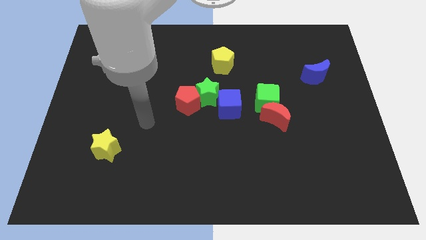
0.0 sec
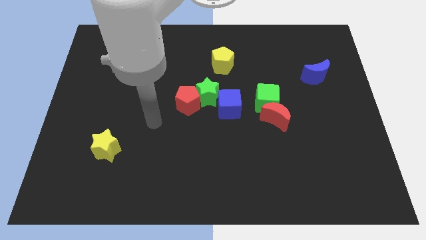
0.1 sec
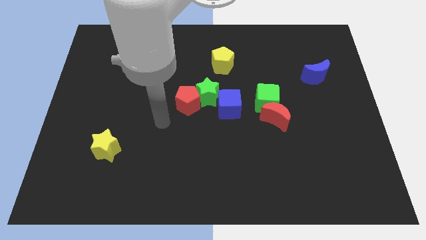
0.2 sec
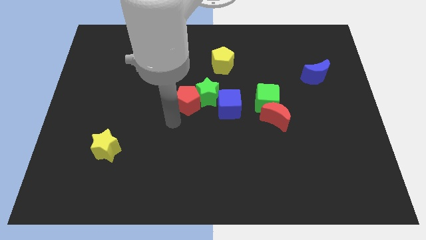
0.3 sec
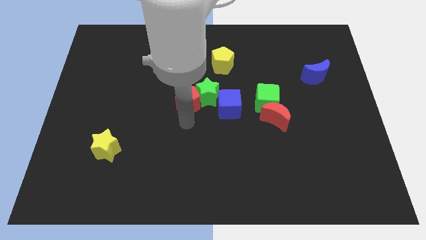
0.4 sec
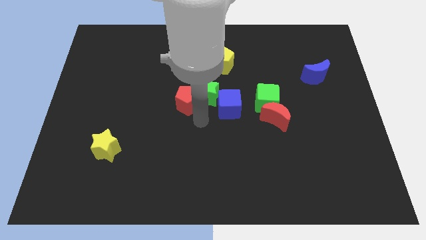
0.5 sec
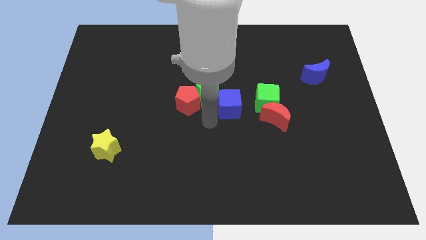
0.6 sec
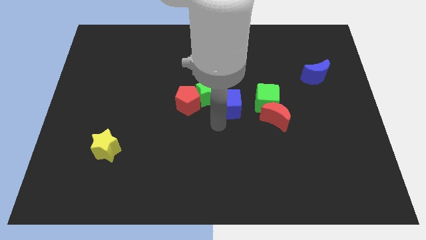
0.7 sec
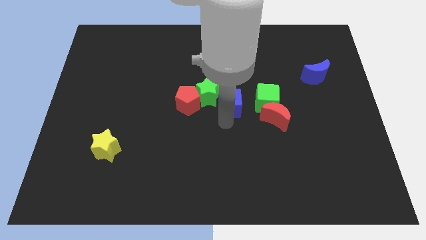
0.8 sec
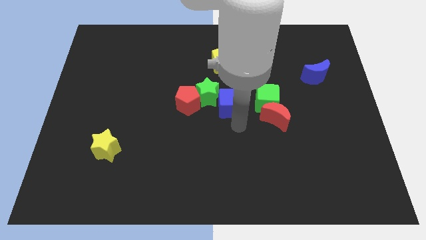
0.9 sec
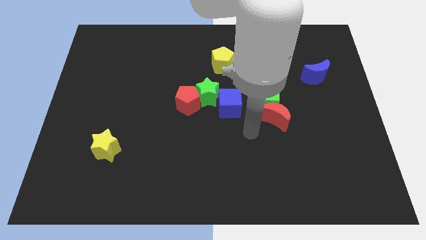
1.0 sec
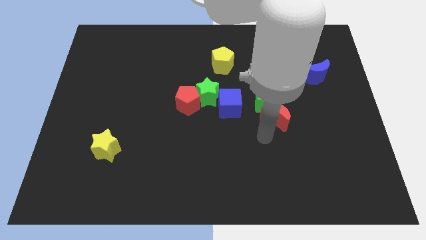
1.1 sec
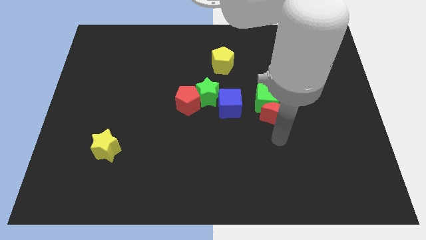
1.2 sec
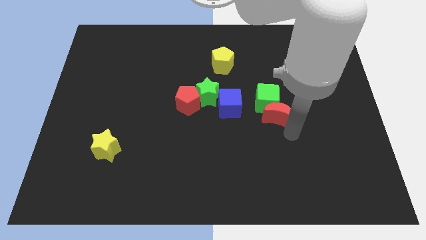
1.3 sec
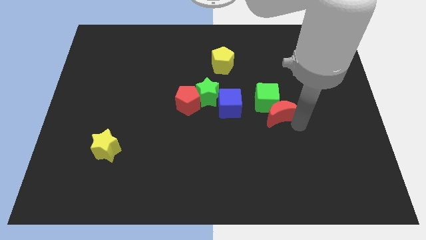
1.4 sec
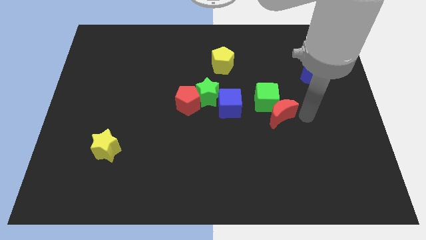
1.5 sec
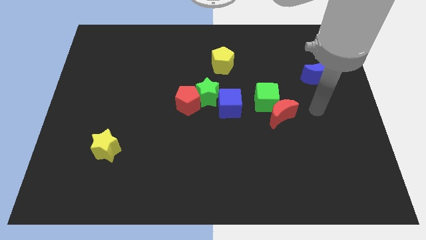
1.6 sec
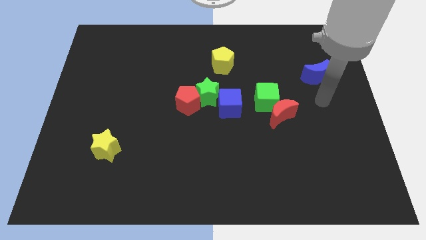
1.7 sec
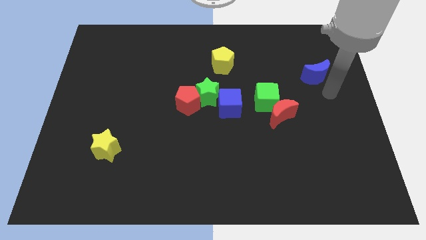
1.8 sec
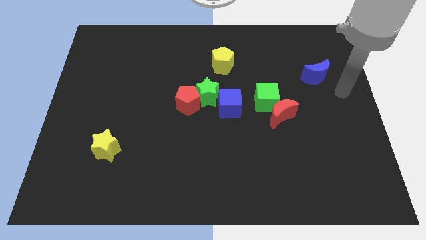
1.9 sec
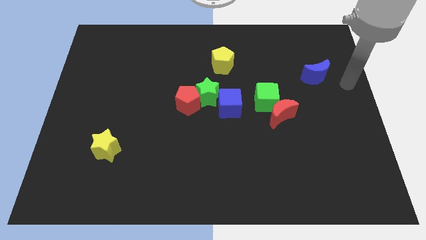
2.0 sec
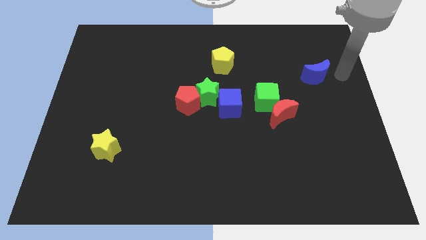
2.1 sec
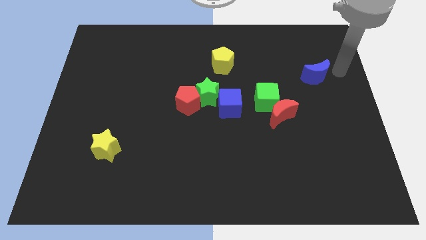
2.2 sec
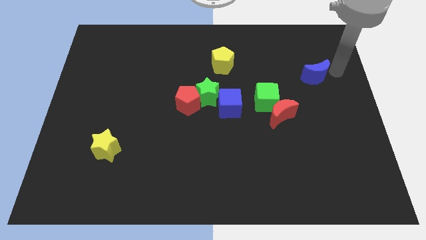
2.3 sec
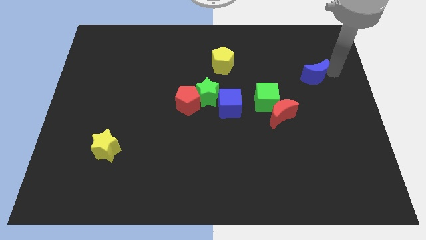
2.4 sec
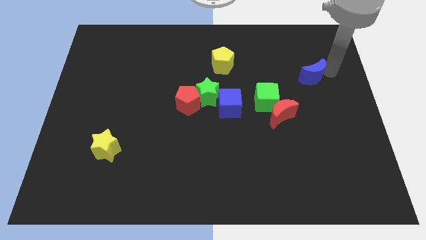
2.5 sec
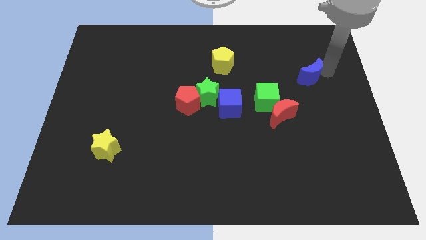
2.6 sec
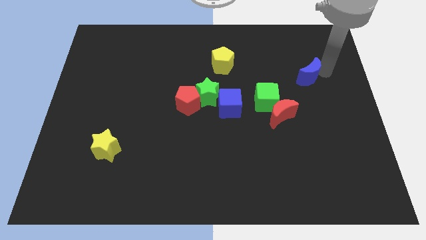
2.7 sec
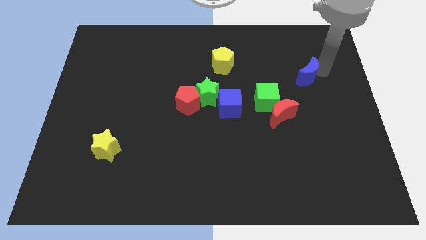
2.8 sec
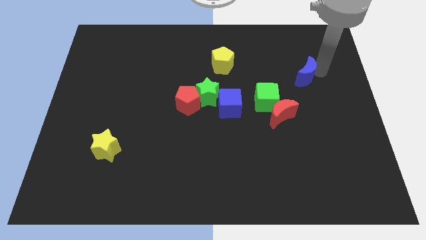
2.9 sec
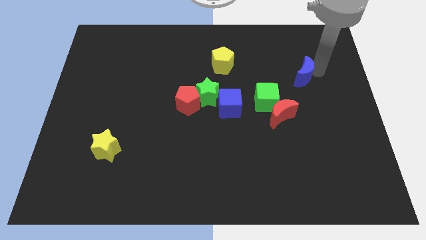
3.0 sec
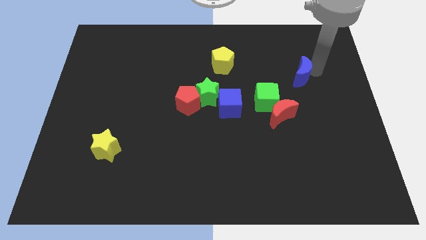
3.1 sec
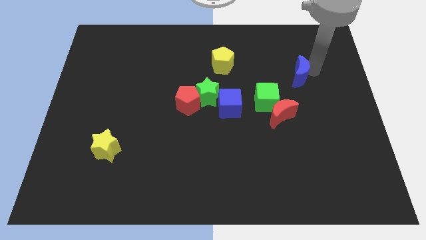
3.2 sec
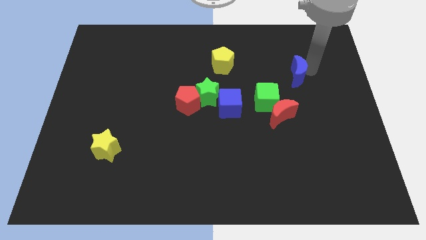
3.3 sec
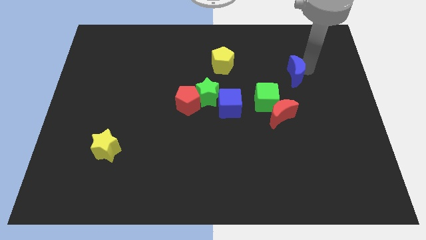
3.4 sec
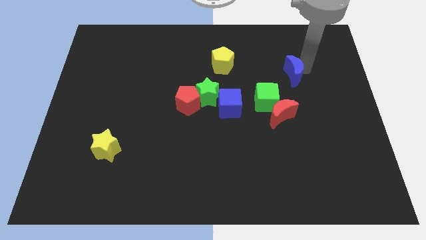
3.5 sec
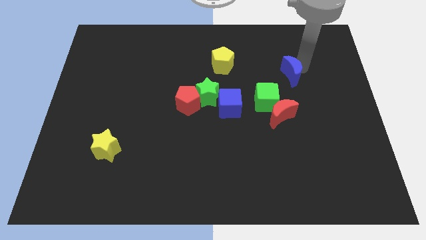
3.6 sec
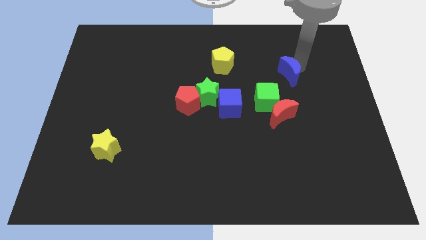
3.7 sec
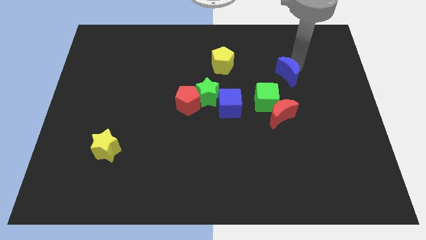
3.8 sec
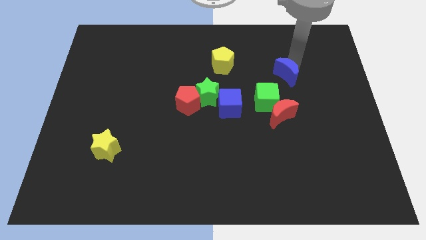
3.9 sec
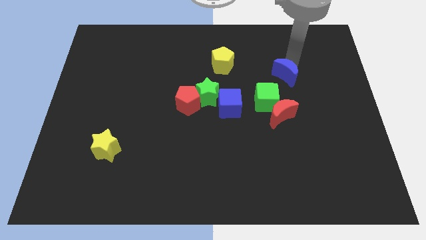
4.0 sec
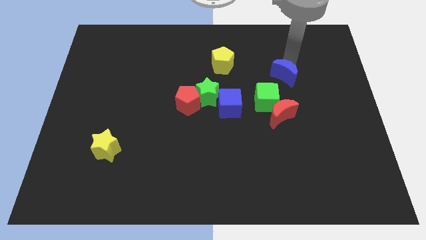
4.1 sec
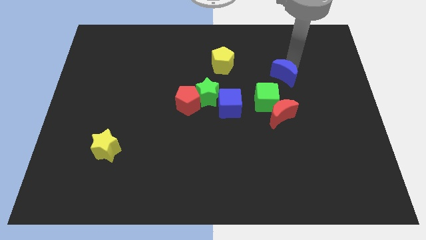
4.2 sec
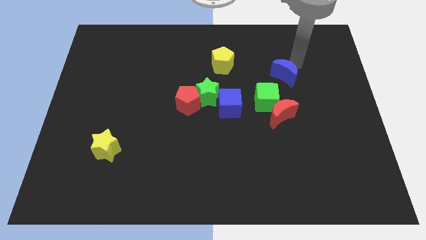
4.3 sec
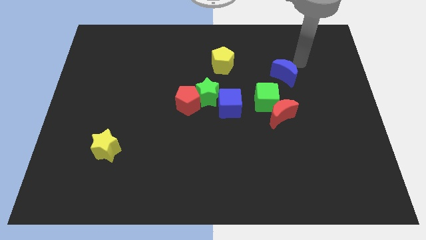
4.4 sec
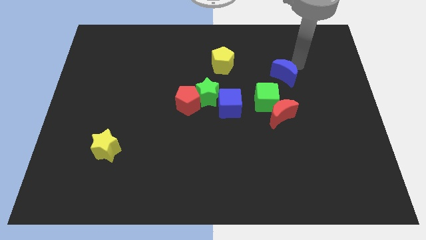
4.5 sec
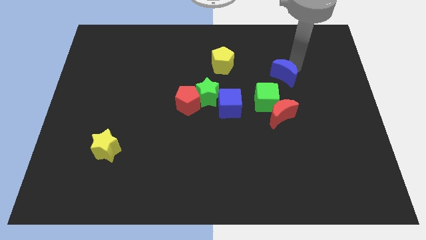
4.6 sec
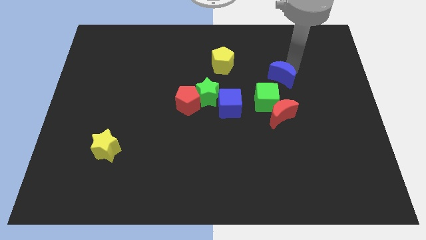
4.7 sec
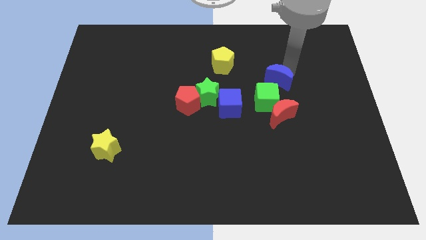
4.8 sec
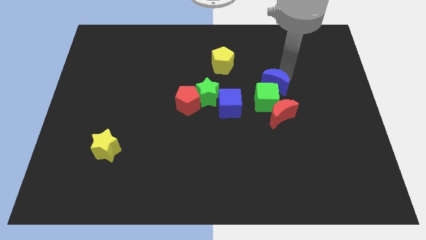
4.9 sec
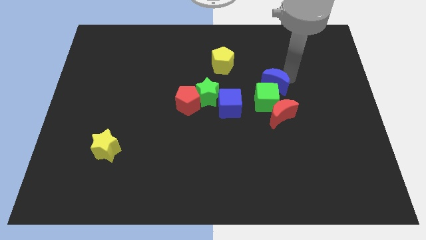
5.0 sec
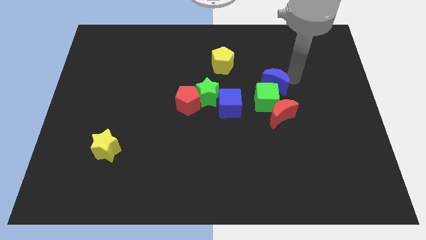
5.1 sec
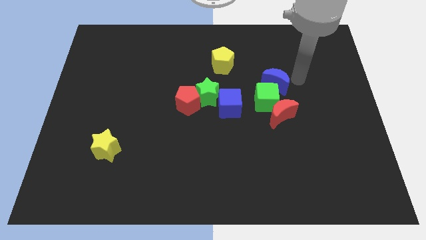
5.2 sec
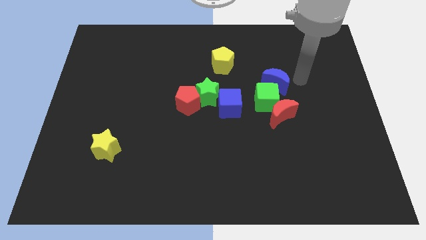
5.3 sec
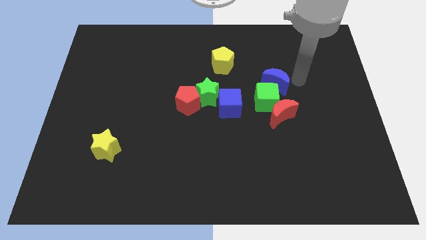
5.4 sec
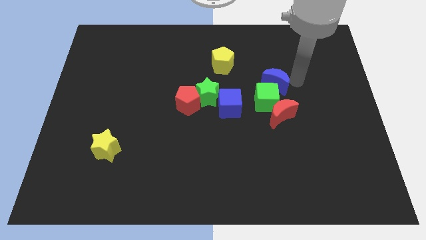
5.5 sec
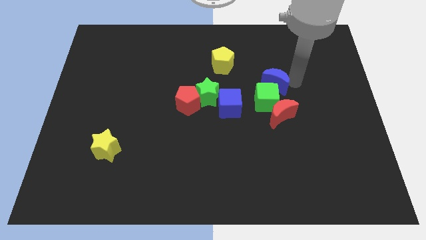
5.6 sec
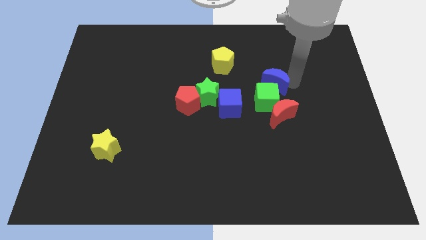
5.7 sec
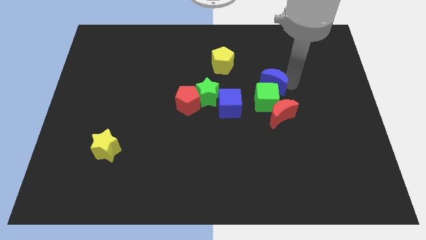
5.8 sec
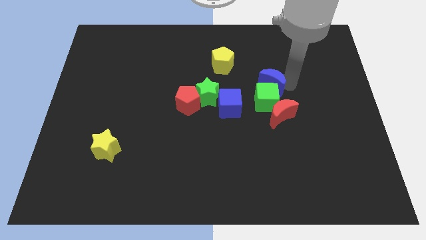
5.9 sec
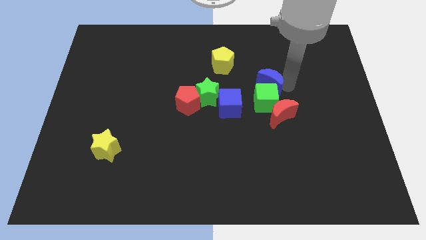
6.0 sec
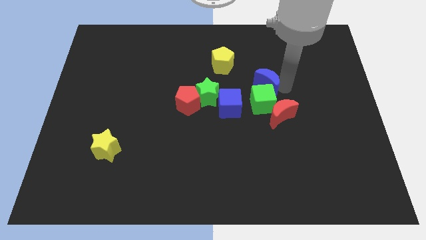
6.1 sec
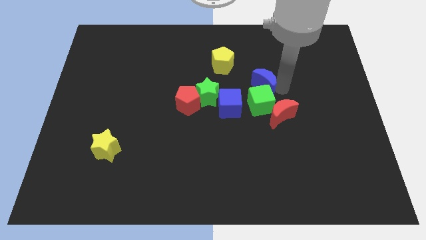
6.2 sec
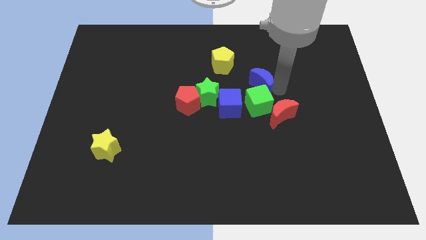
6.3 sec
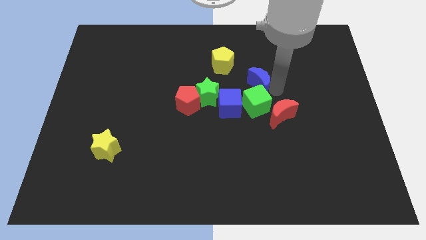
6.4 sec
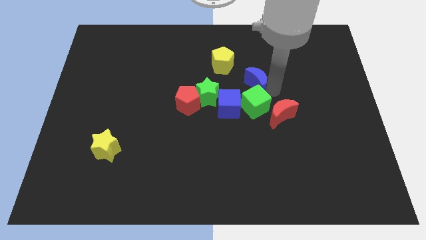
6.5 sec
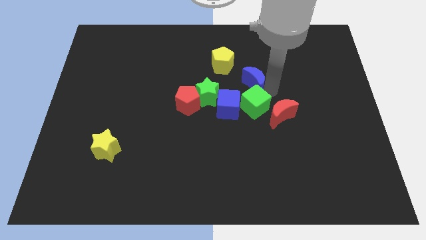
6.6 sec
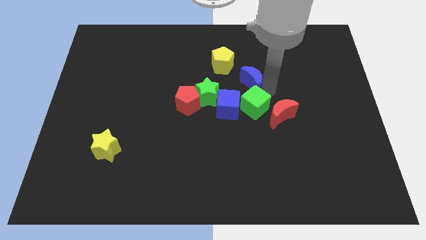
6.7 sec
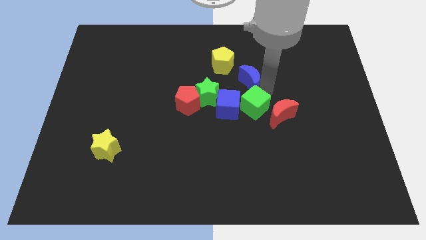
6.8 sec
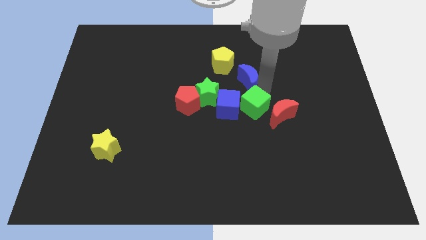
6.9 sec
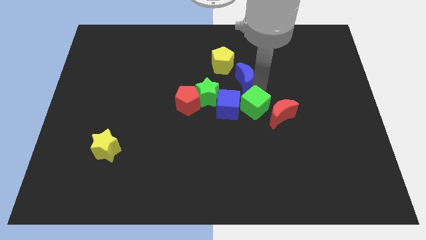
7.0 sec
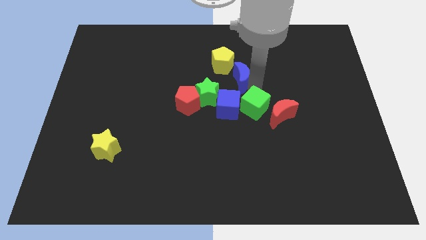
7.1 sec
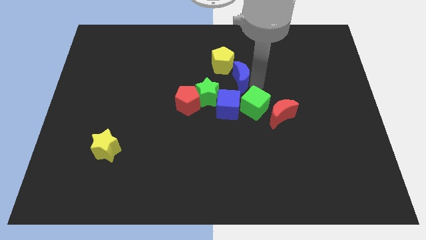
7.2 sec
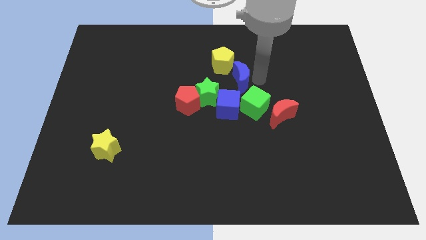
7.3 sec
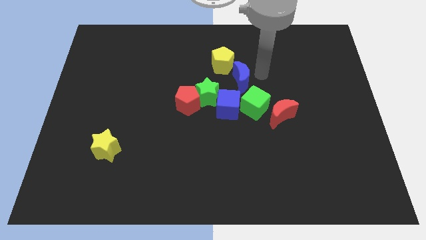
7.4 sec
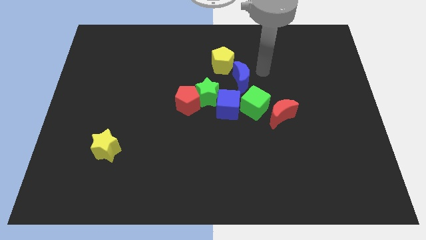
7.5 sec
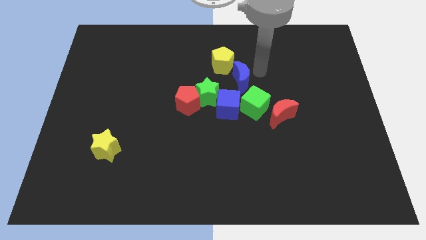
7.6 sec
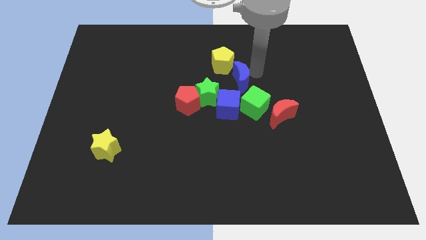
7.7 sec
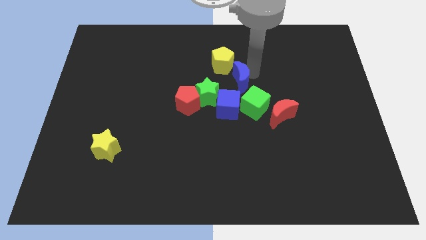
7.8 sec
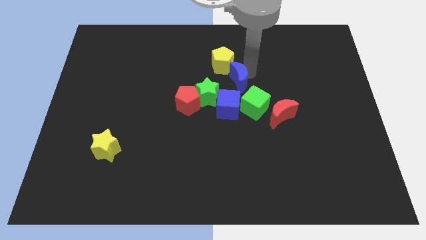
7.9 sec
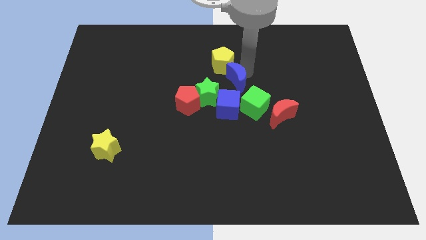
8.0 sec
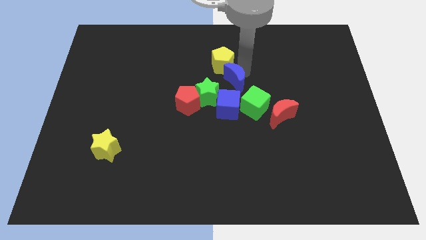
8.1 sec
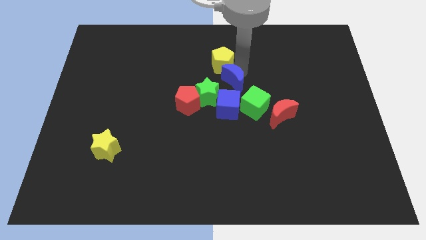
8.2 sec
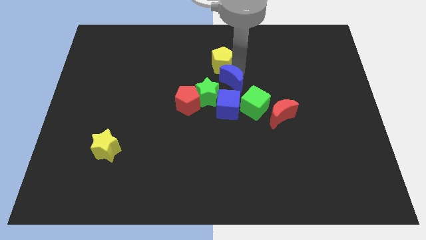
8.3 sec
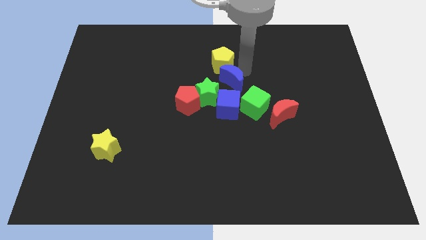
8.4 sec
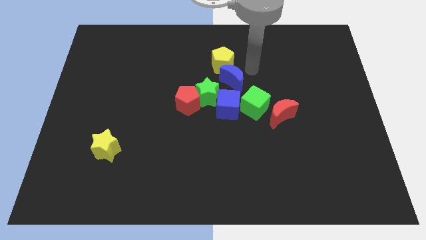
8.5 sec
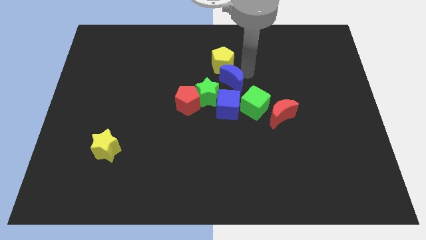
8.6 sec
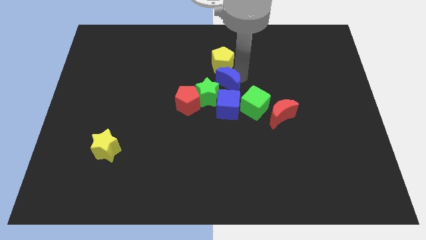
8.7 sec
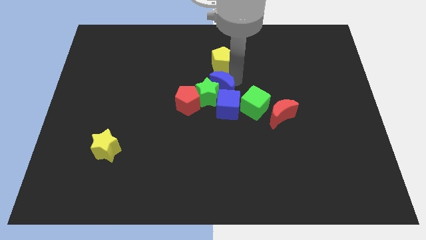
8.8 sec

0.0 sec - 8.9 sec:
push the blue moon towards the green star
